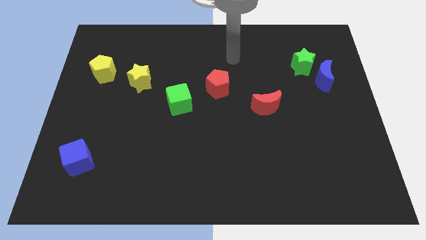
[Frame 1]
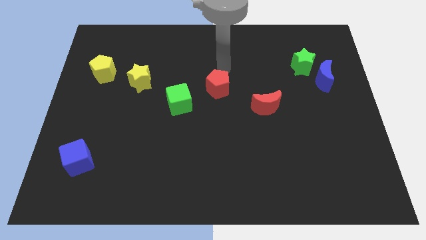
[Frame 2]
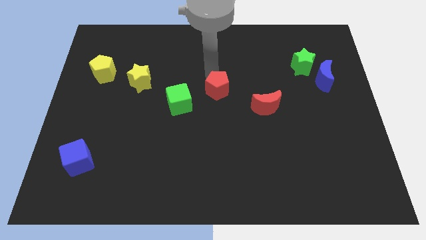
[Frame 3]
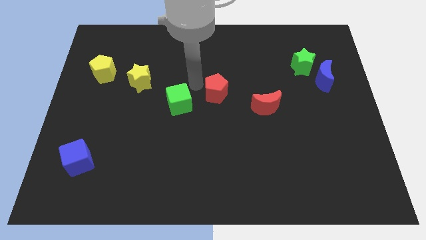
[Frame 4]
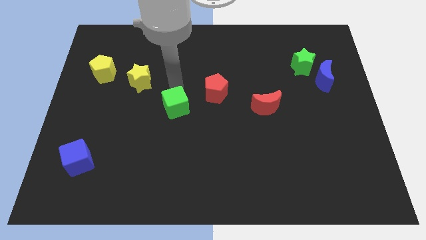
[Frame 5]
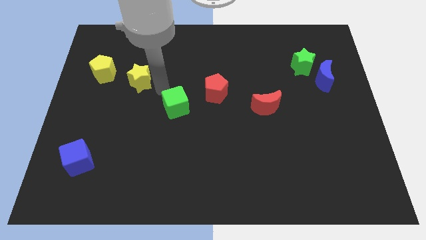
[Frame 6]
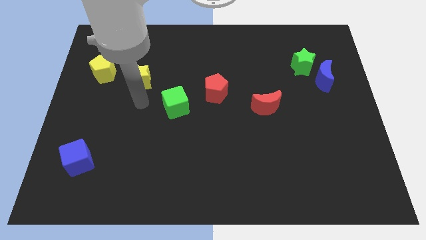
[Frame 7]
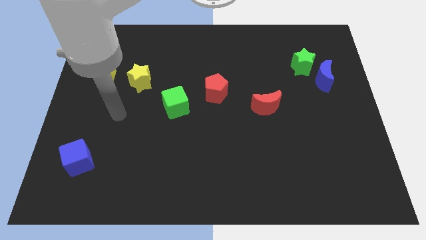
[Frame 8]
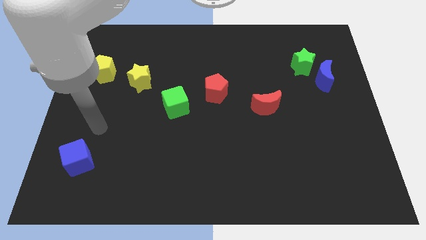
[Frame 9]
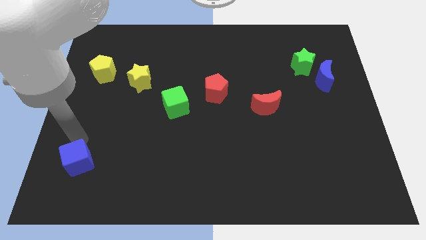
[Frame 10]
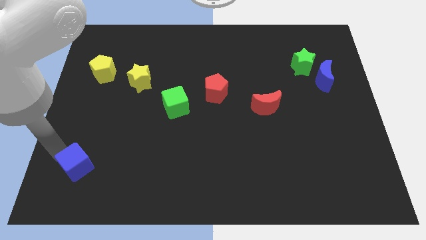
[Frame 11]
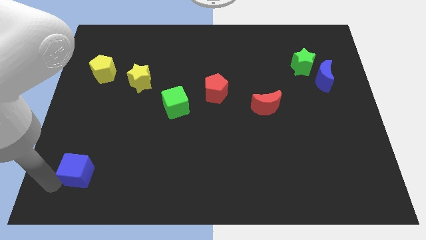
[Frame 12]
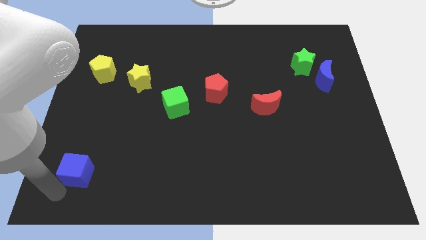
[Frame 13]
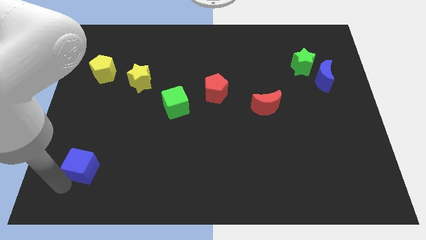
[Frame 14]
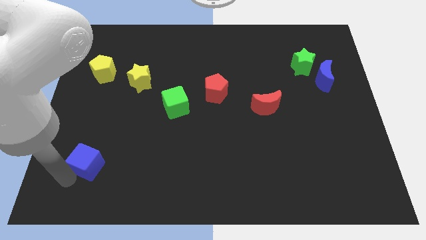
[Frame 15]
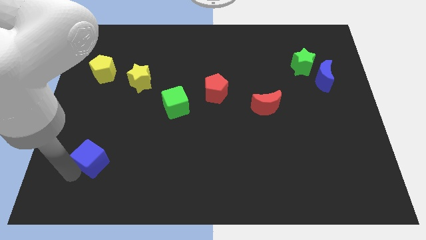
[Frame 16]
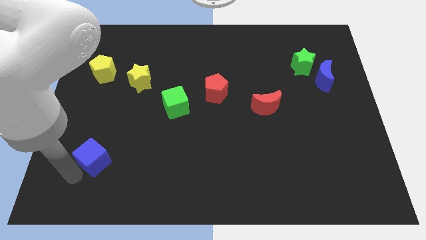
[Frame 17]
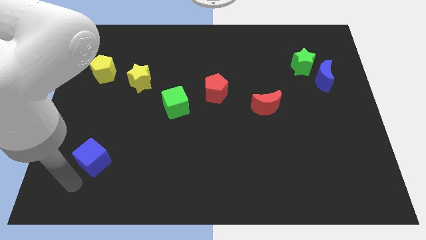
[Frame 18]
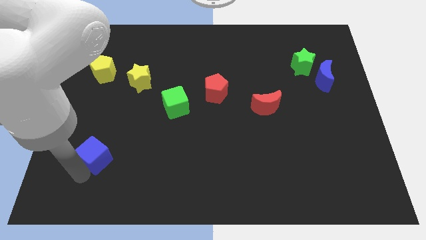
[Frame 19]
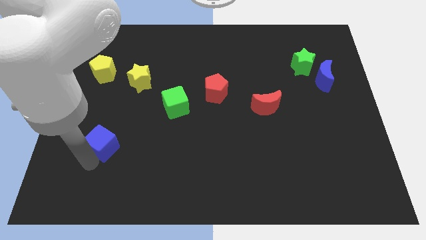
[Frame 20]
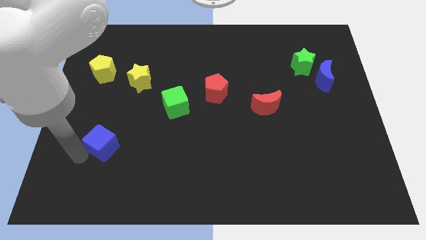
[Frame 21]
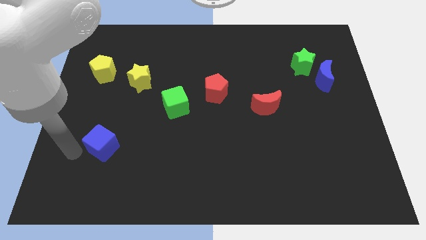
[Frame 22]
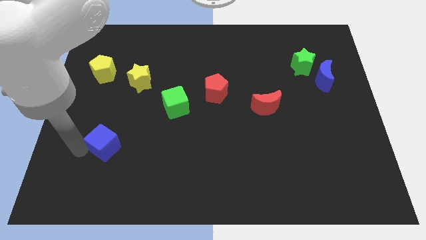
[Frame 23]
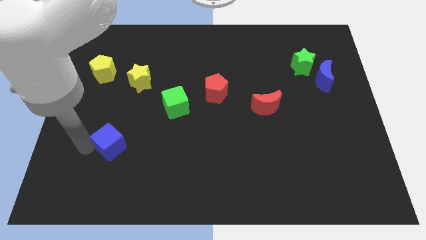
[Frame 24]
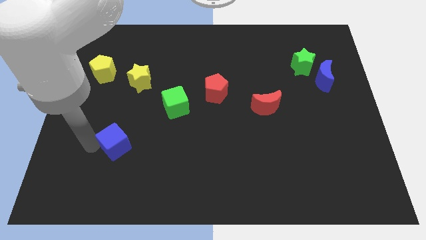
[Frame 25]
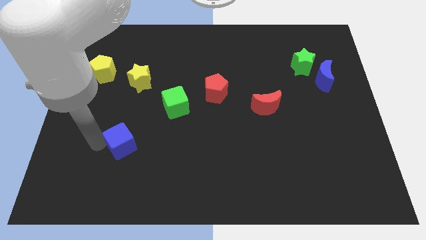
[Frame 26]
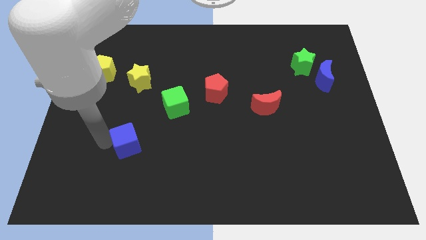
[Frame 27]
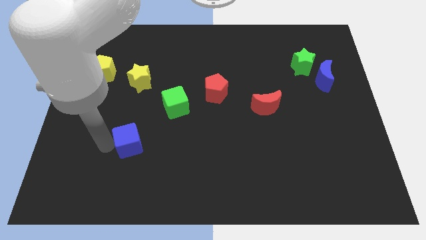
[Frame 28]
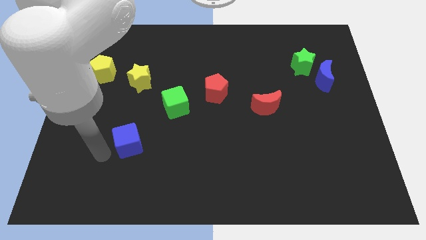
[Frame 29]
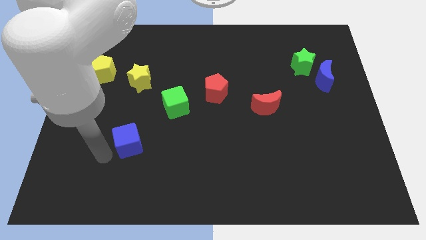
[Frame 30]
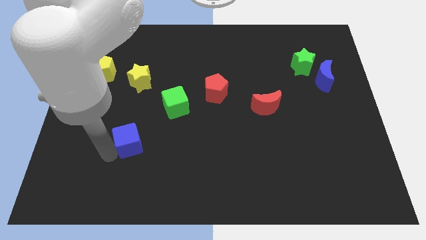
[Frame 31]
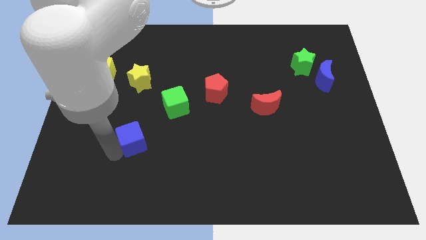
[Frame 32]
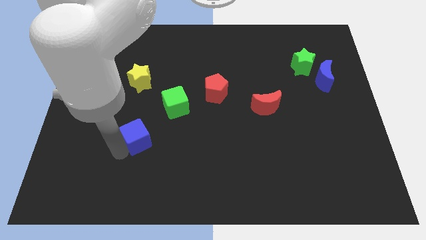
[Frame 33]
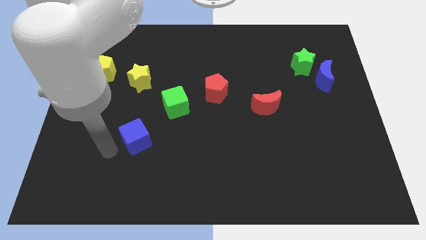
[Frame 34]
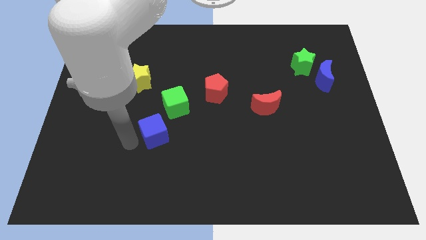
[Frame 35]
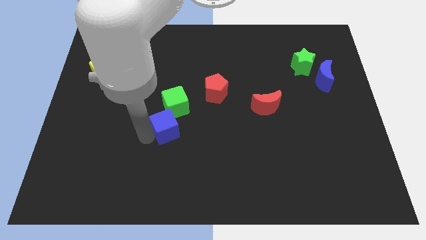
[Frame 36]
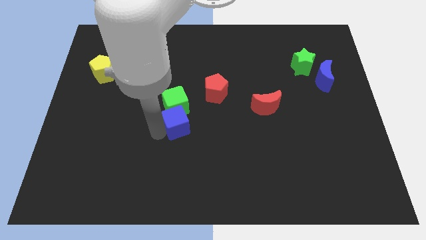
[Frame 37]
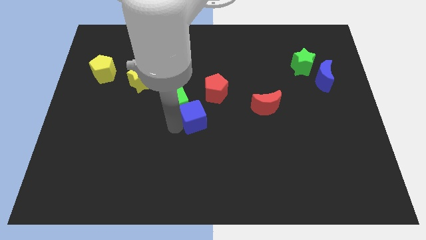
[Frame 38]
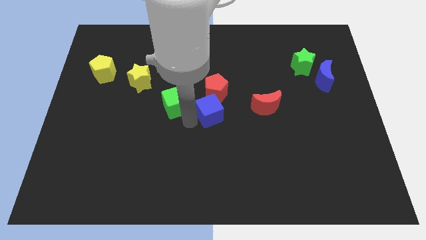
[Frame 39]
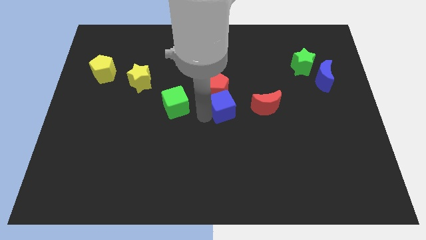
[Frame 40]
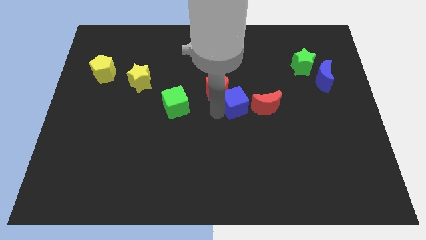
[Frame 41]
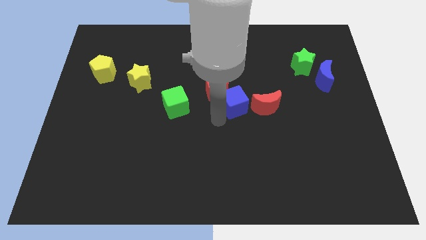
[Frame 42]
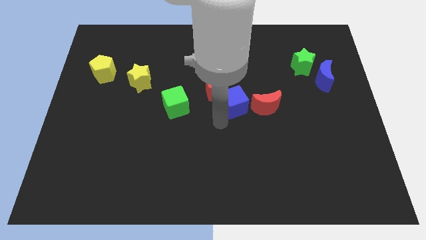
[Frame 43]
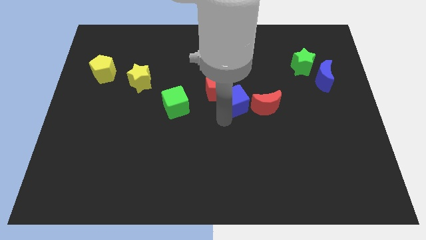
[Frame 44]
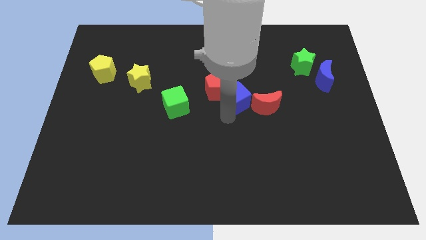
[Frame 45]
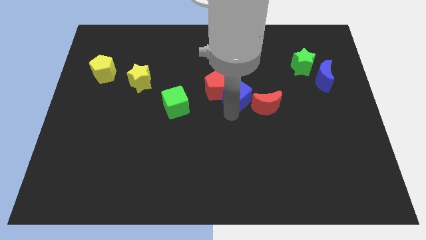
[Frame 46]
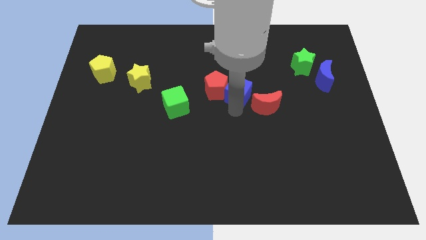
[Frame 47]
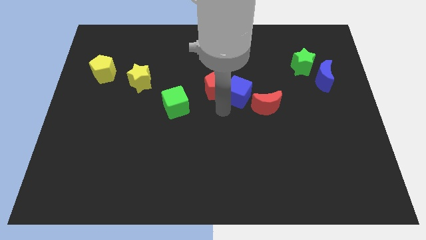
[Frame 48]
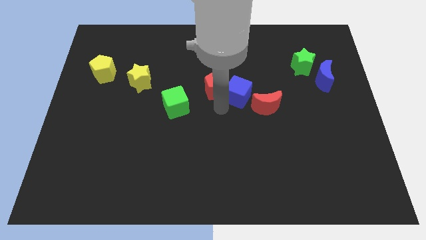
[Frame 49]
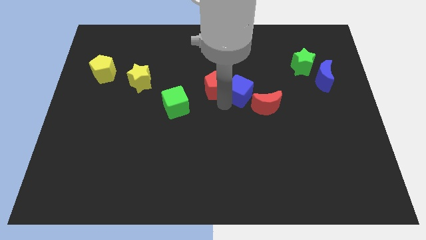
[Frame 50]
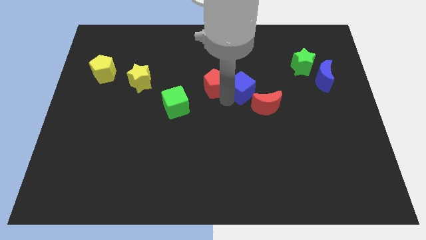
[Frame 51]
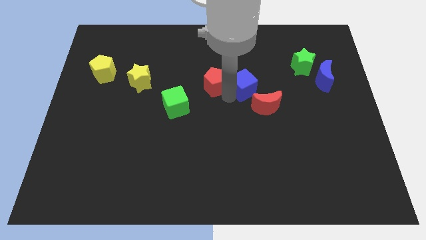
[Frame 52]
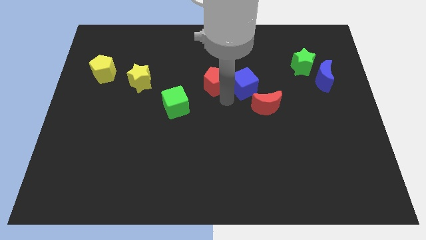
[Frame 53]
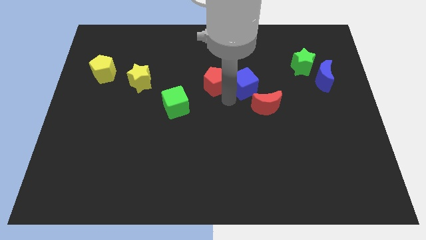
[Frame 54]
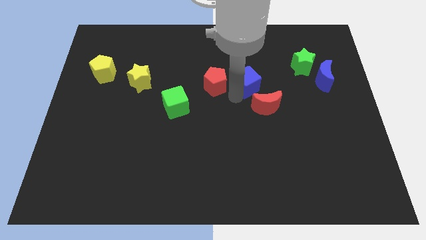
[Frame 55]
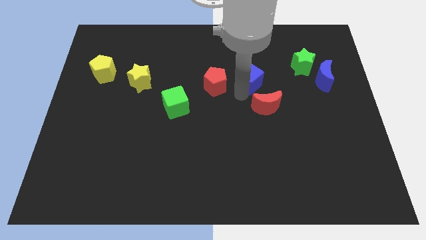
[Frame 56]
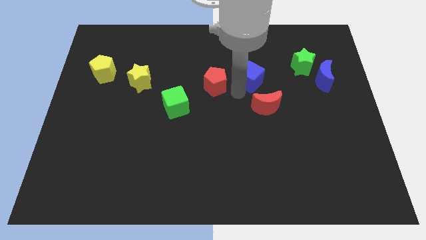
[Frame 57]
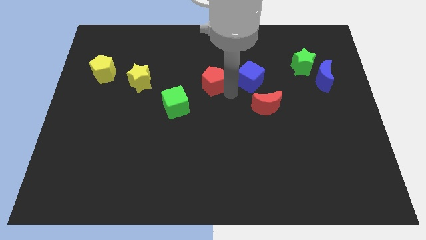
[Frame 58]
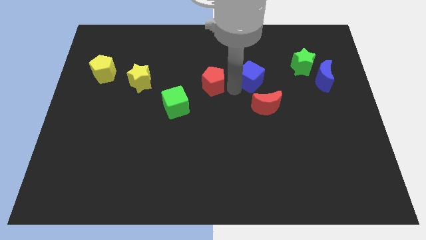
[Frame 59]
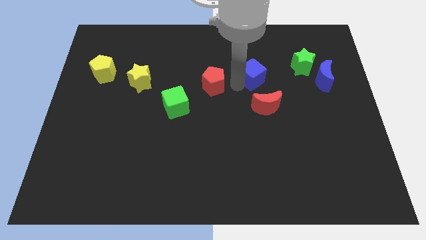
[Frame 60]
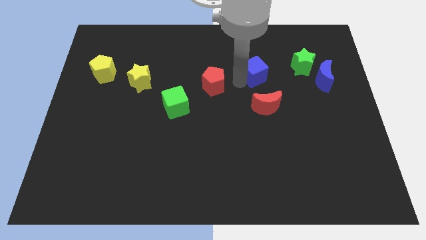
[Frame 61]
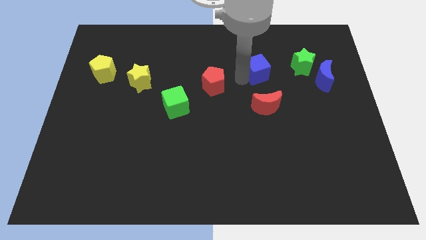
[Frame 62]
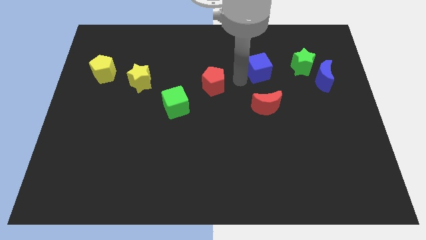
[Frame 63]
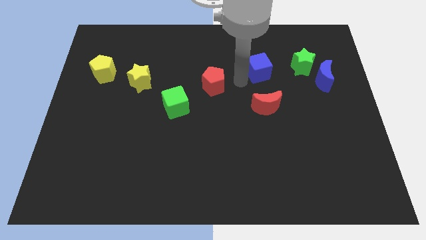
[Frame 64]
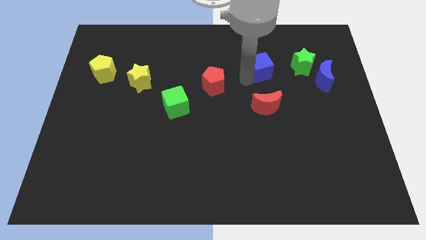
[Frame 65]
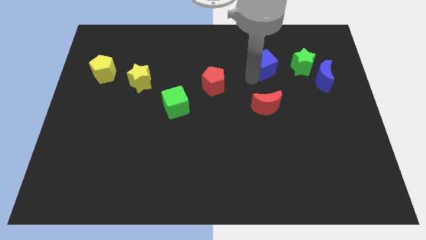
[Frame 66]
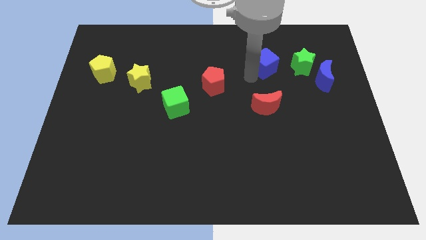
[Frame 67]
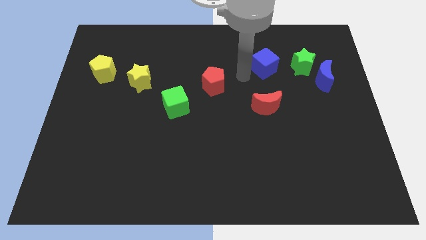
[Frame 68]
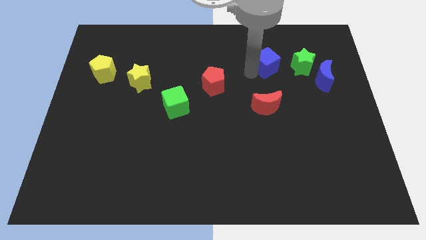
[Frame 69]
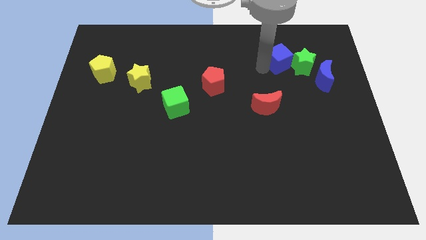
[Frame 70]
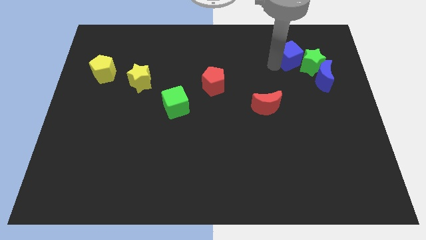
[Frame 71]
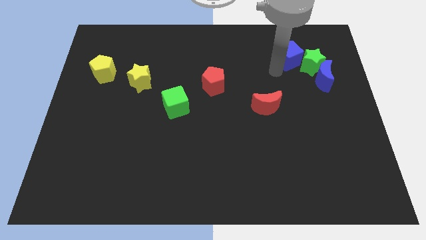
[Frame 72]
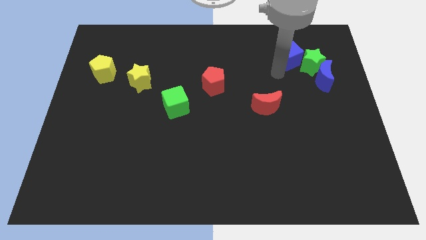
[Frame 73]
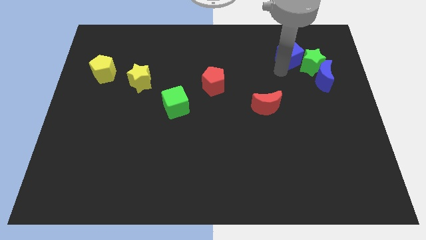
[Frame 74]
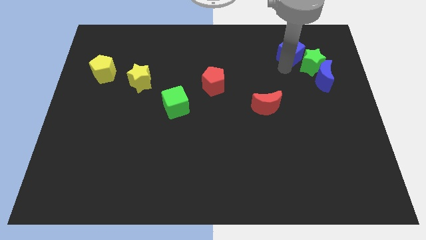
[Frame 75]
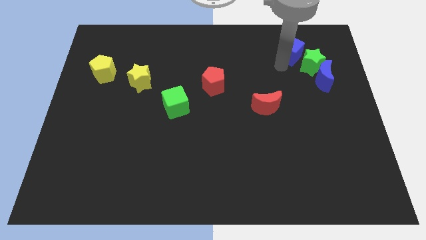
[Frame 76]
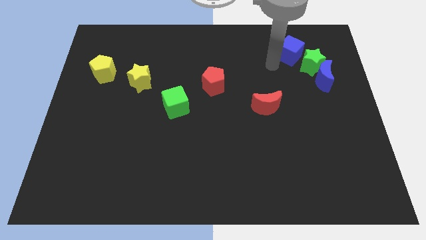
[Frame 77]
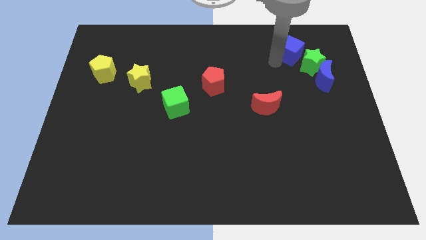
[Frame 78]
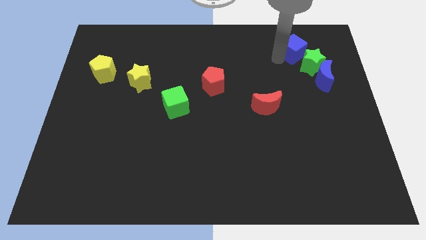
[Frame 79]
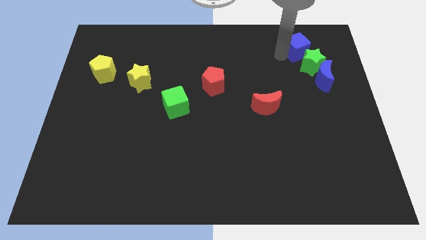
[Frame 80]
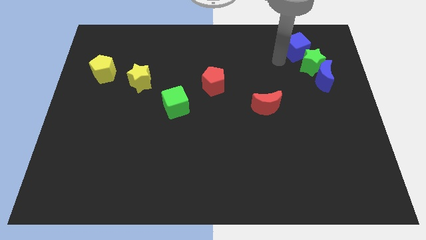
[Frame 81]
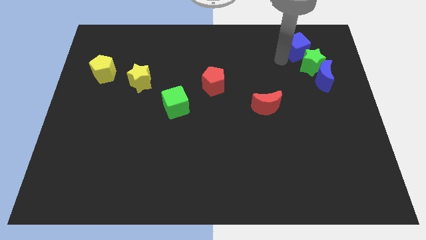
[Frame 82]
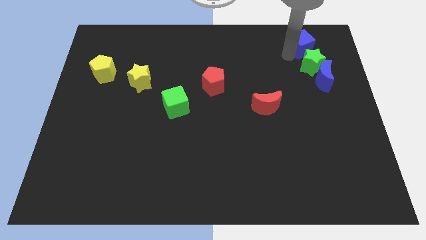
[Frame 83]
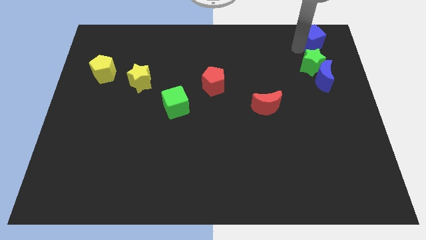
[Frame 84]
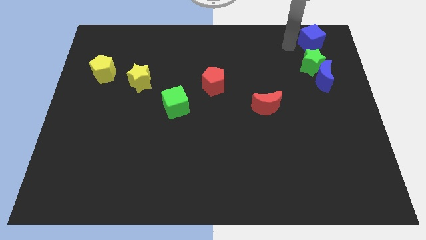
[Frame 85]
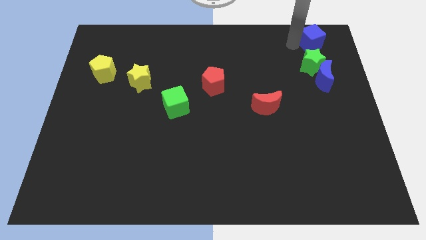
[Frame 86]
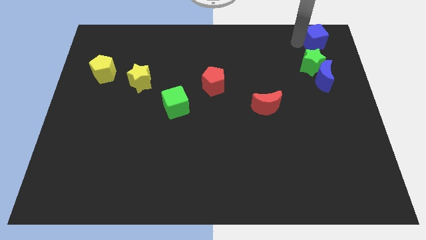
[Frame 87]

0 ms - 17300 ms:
push the blue cube to the top right corner
